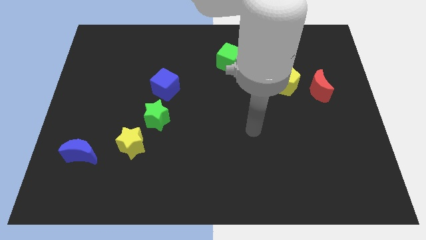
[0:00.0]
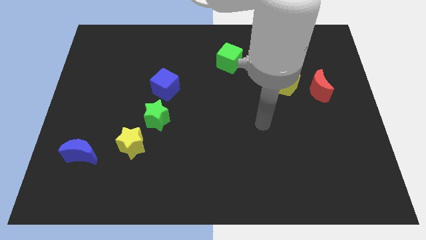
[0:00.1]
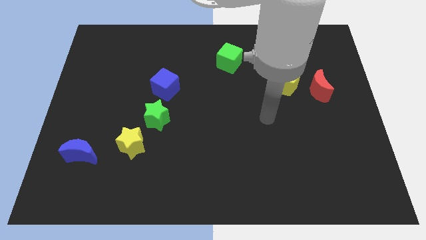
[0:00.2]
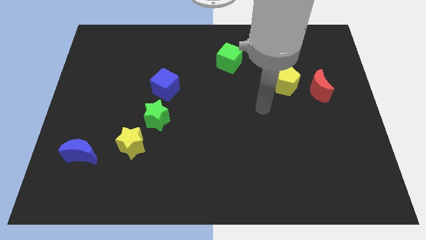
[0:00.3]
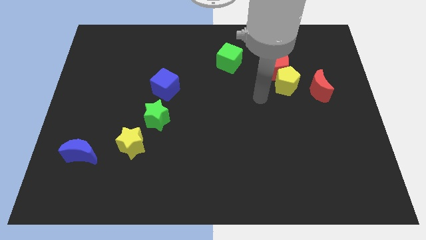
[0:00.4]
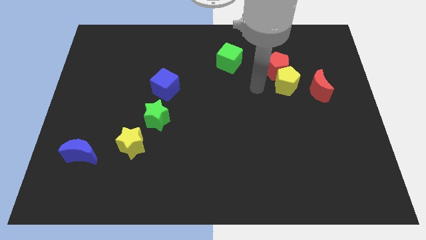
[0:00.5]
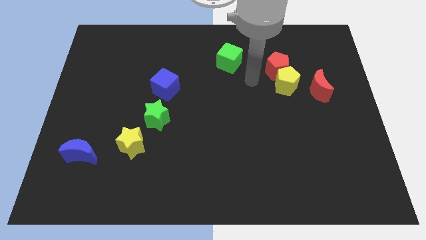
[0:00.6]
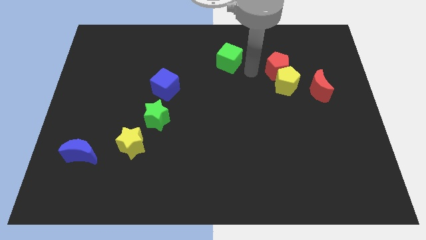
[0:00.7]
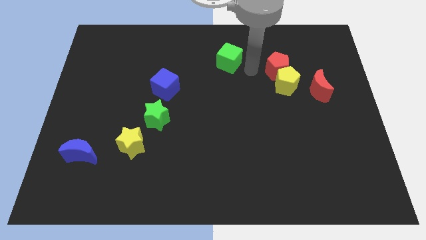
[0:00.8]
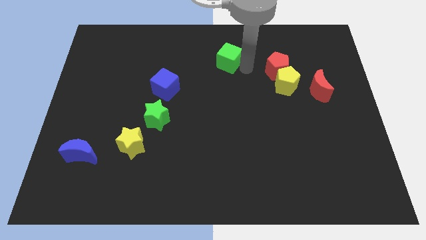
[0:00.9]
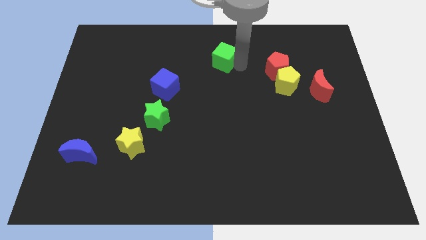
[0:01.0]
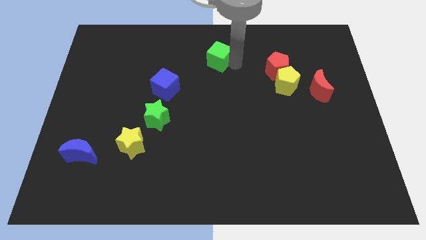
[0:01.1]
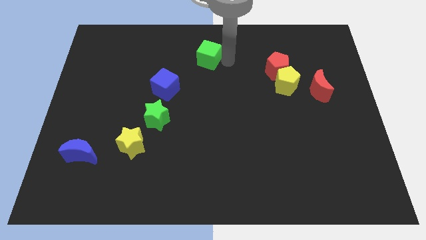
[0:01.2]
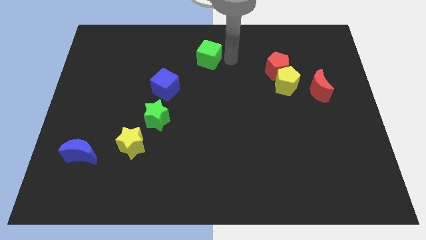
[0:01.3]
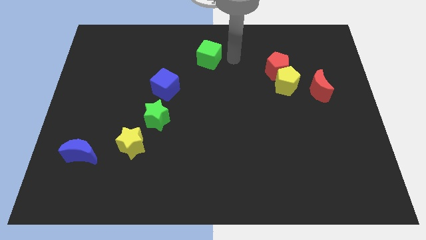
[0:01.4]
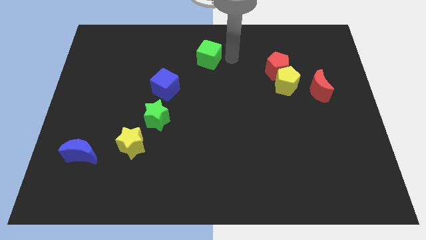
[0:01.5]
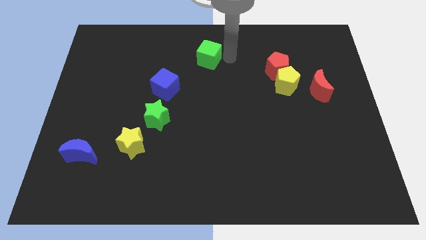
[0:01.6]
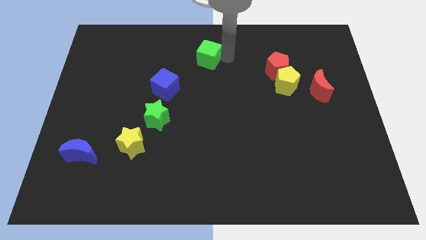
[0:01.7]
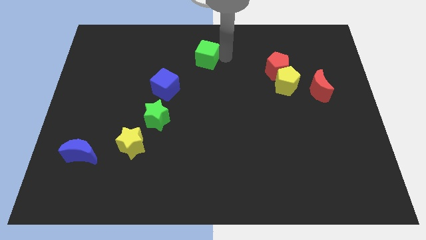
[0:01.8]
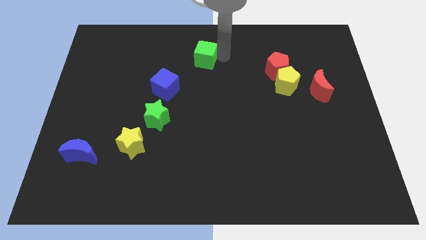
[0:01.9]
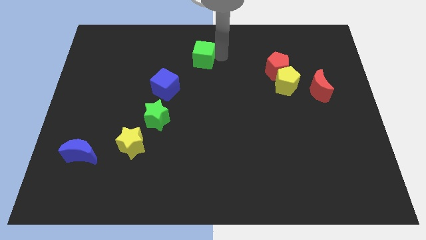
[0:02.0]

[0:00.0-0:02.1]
move the green cube to the left a bit

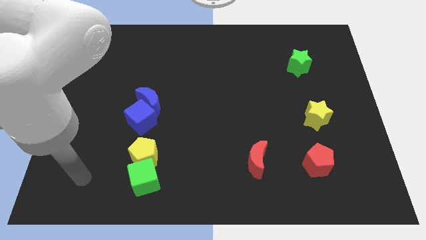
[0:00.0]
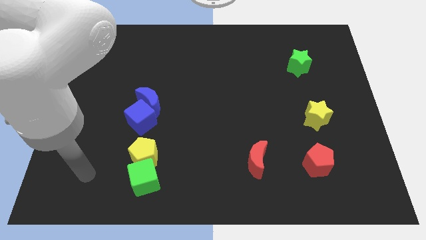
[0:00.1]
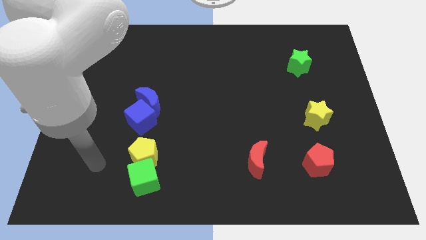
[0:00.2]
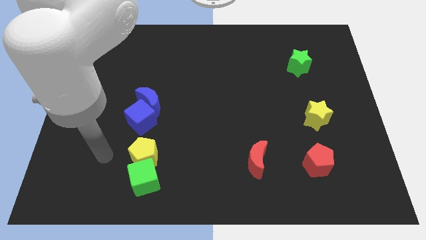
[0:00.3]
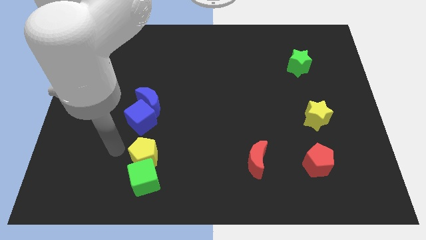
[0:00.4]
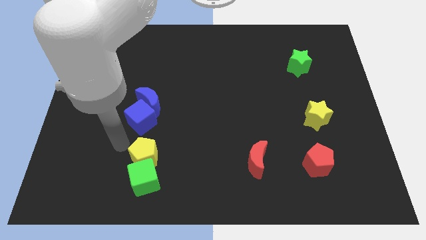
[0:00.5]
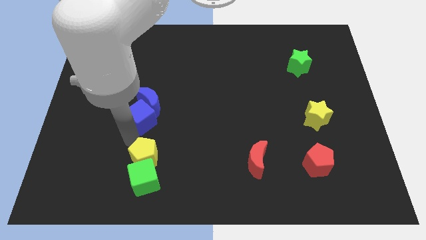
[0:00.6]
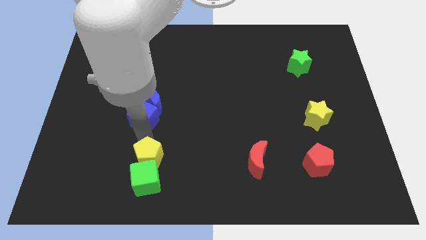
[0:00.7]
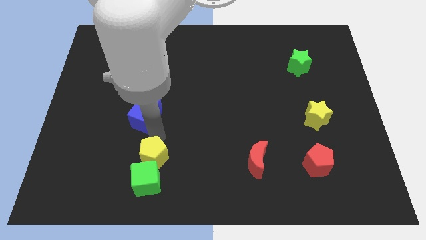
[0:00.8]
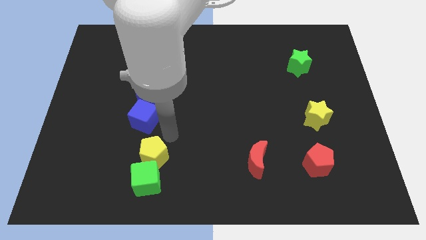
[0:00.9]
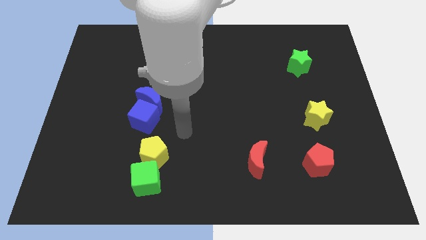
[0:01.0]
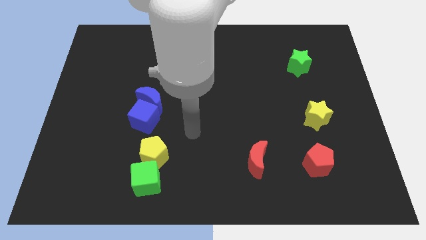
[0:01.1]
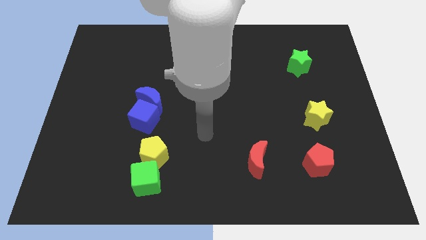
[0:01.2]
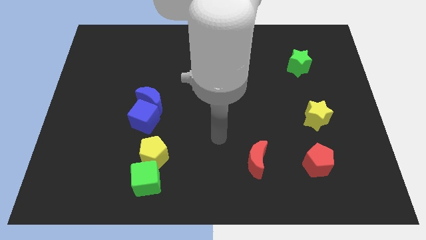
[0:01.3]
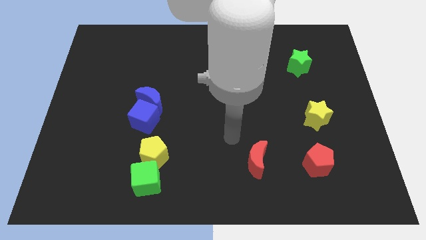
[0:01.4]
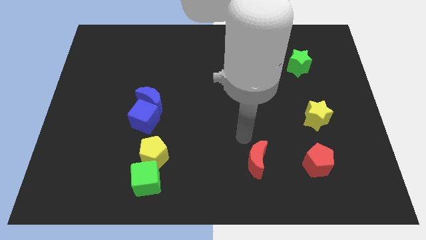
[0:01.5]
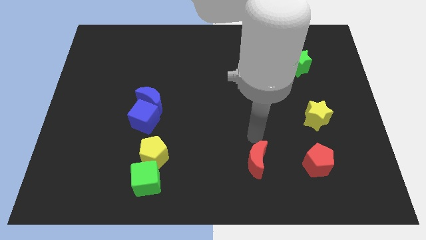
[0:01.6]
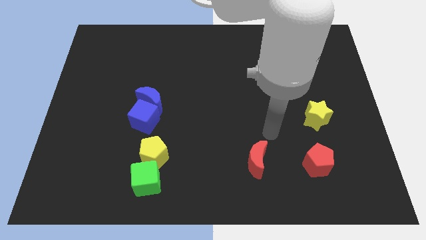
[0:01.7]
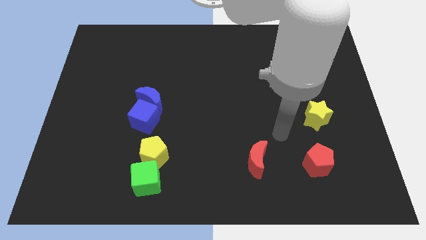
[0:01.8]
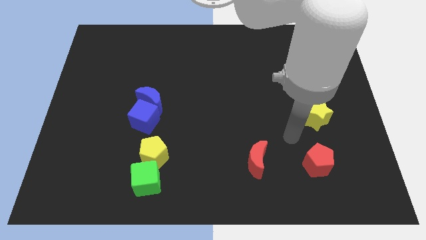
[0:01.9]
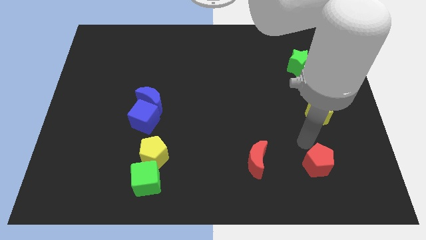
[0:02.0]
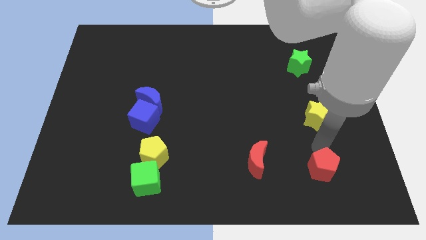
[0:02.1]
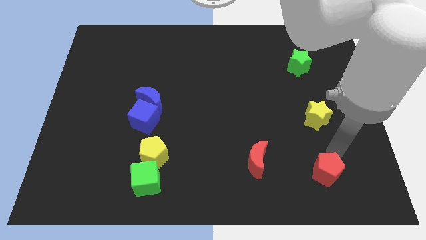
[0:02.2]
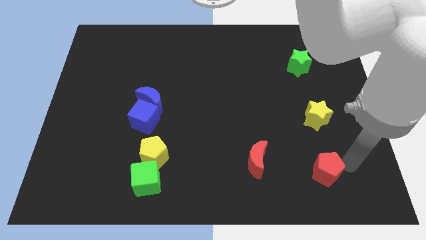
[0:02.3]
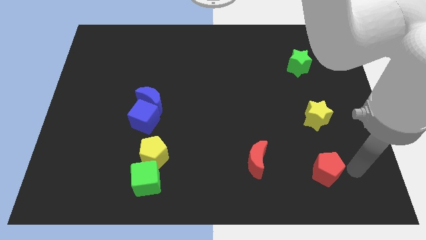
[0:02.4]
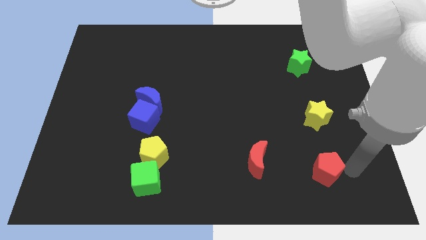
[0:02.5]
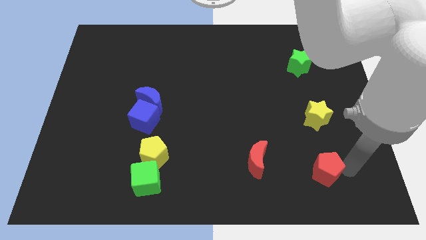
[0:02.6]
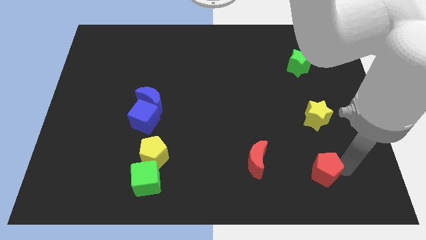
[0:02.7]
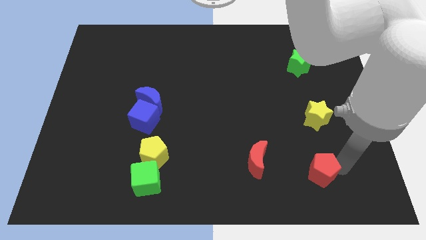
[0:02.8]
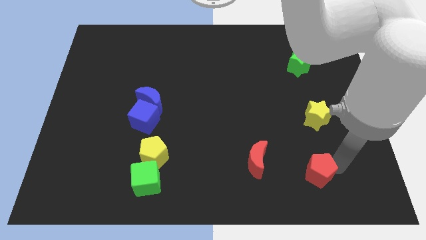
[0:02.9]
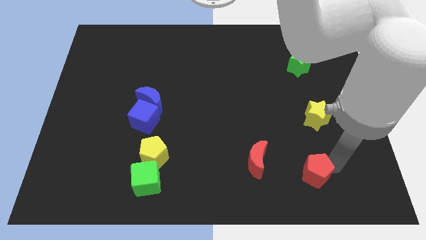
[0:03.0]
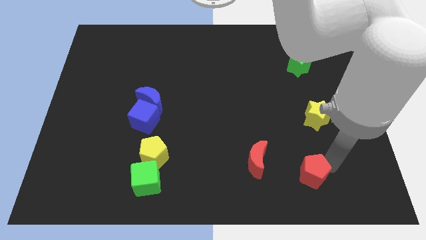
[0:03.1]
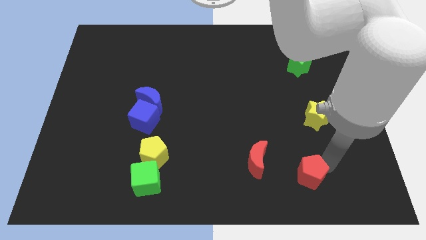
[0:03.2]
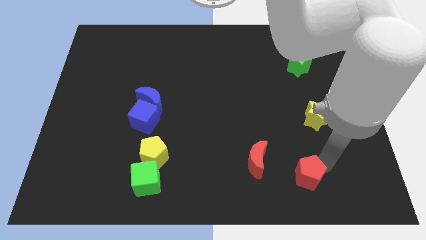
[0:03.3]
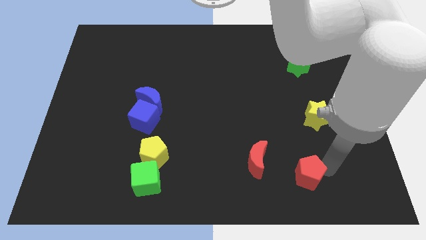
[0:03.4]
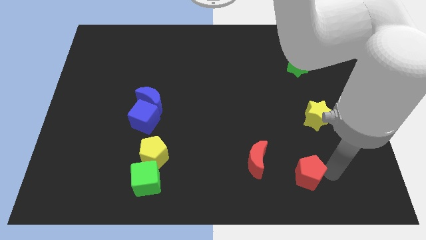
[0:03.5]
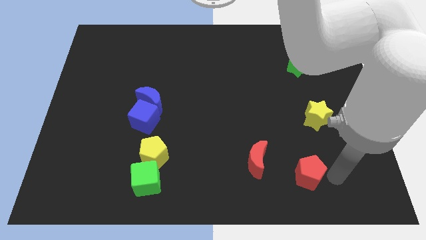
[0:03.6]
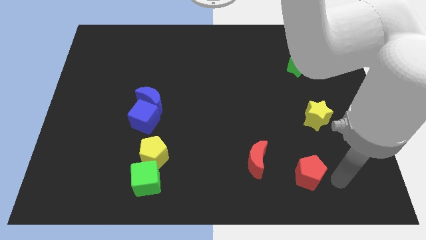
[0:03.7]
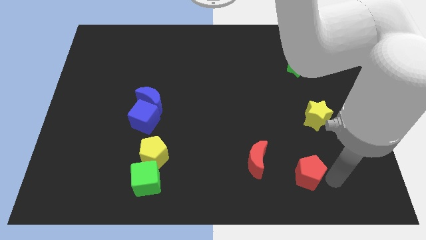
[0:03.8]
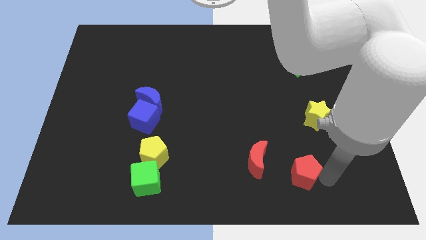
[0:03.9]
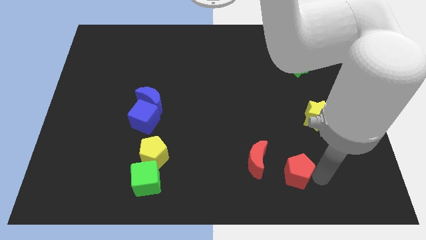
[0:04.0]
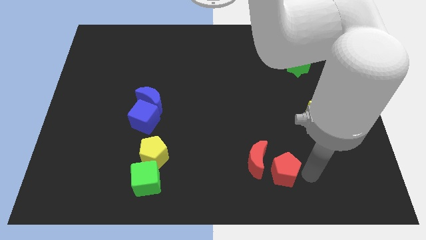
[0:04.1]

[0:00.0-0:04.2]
slightly move the red pentagon to the left

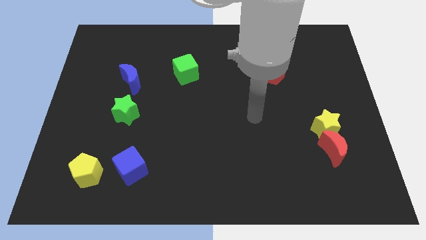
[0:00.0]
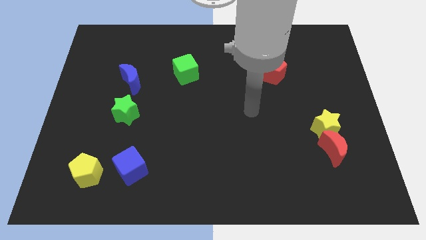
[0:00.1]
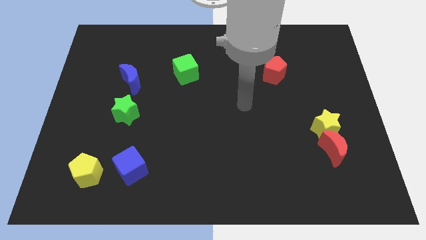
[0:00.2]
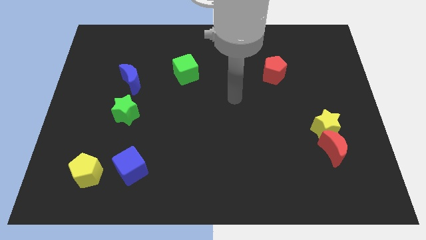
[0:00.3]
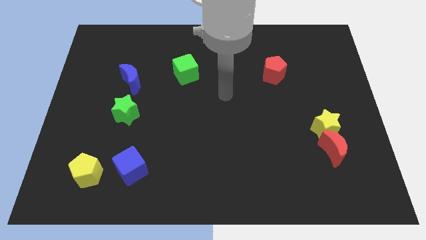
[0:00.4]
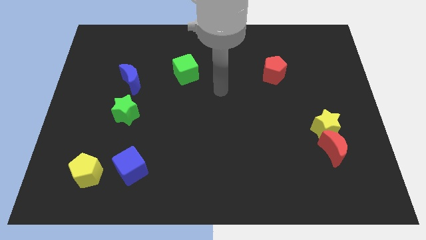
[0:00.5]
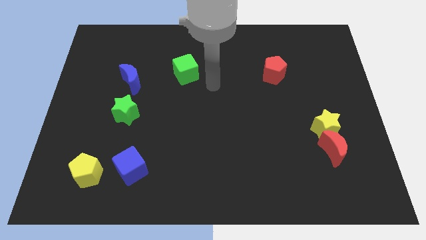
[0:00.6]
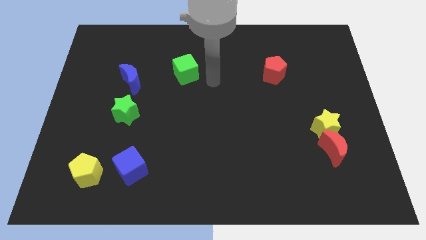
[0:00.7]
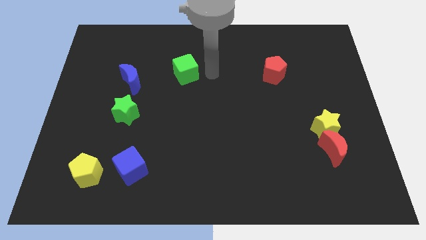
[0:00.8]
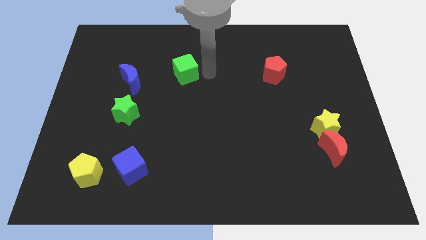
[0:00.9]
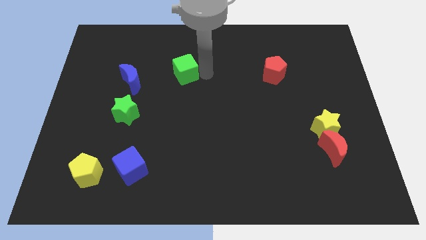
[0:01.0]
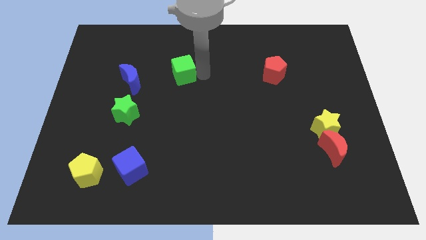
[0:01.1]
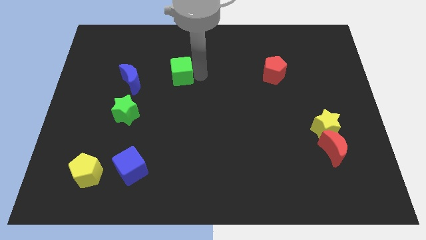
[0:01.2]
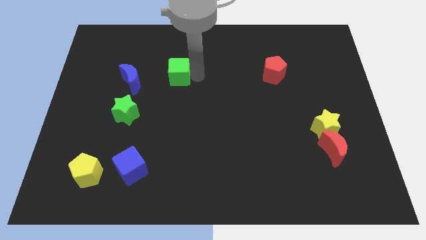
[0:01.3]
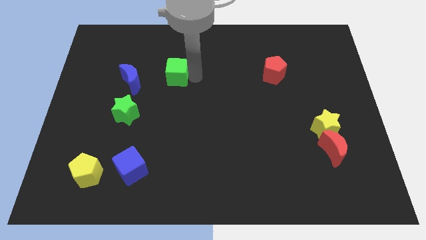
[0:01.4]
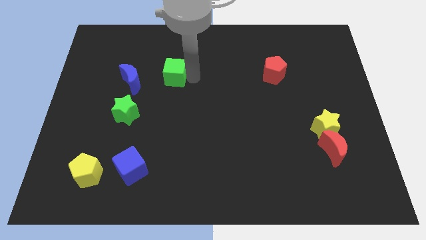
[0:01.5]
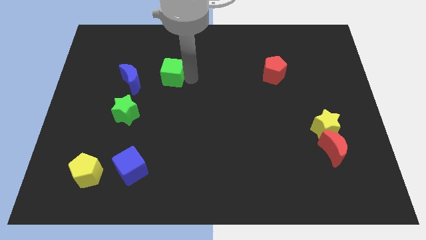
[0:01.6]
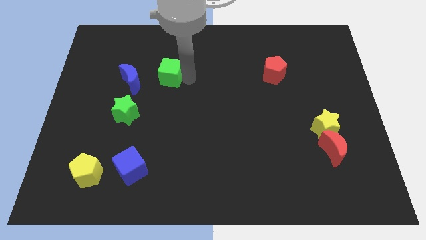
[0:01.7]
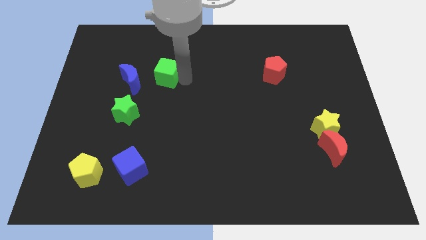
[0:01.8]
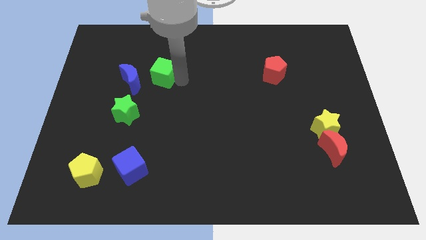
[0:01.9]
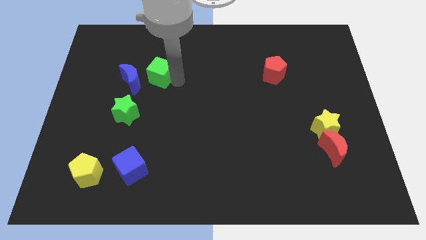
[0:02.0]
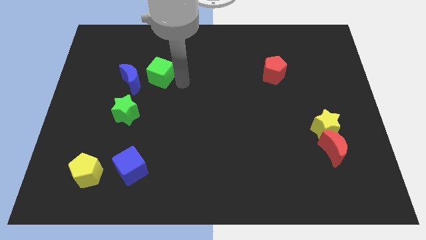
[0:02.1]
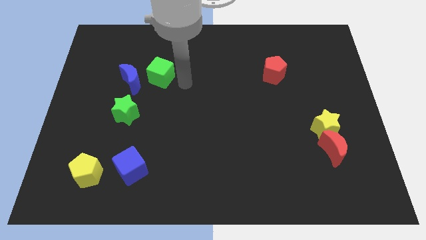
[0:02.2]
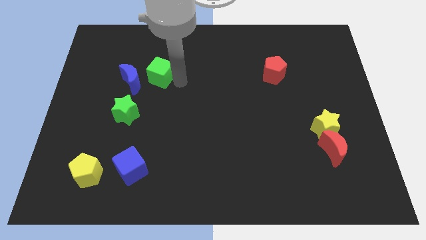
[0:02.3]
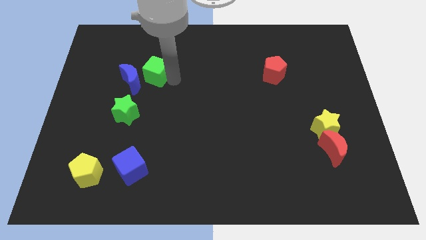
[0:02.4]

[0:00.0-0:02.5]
slightly move the green cube left
